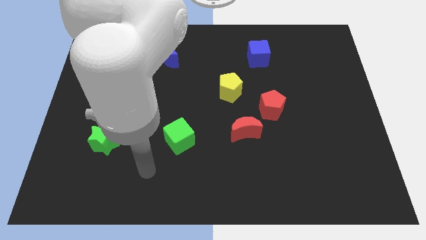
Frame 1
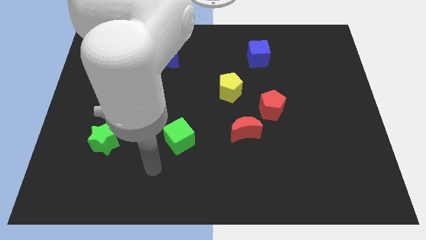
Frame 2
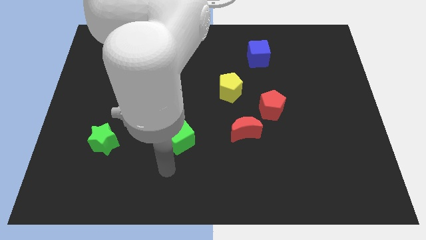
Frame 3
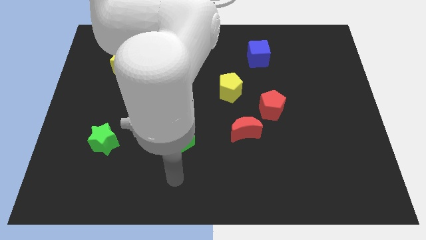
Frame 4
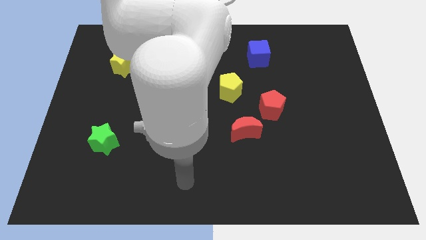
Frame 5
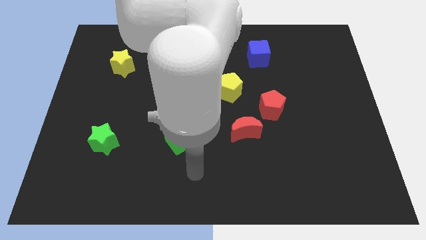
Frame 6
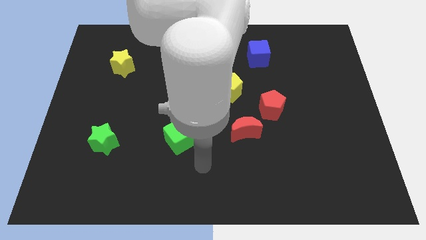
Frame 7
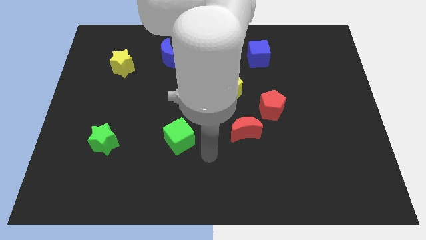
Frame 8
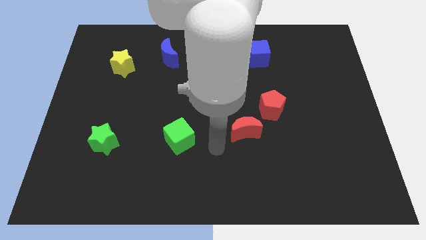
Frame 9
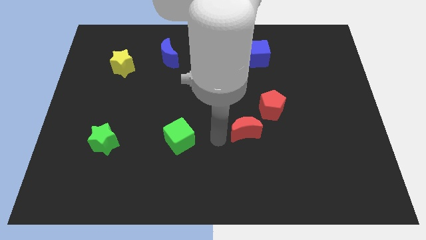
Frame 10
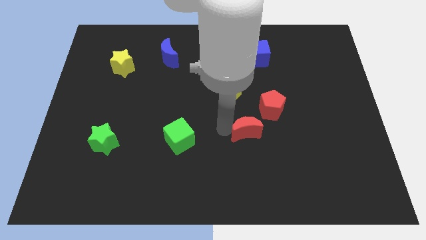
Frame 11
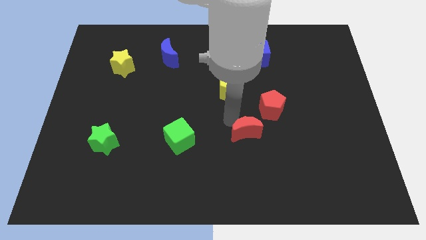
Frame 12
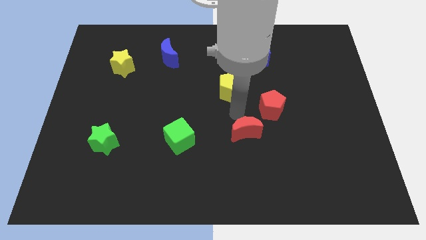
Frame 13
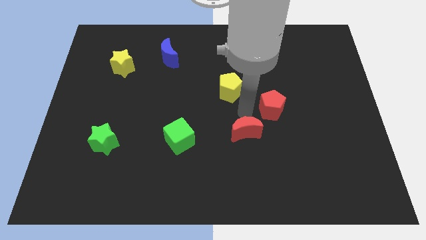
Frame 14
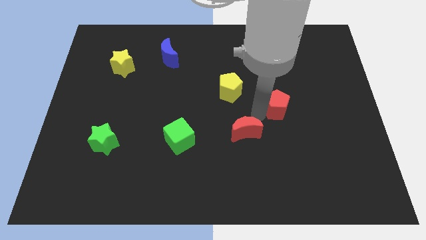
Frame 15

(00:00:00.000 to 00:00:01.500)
separate the red moon from the red pentagon

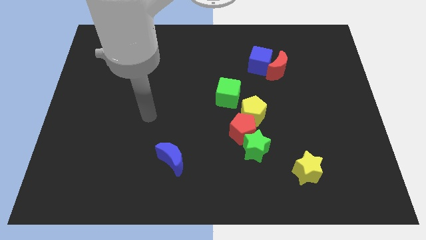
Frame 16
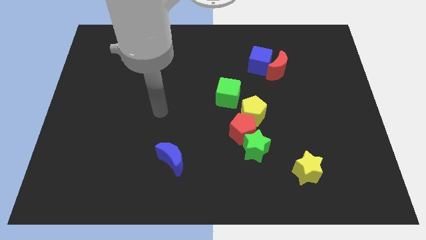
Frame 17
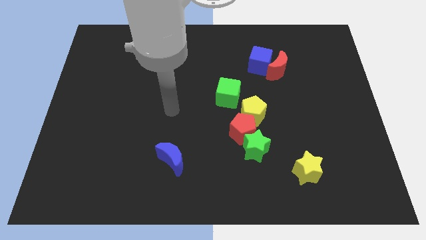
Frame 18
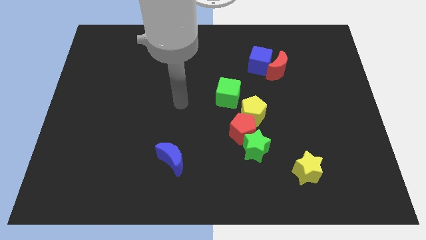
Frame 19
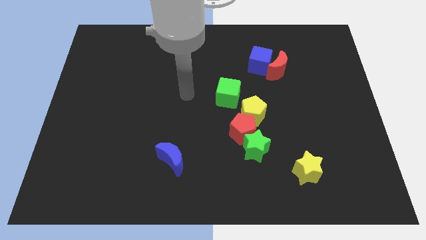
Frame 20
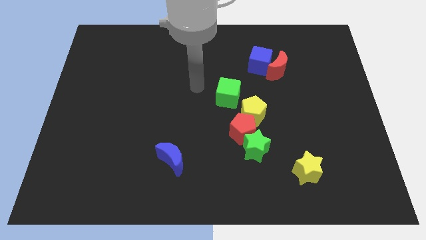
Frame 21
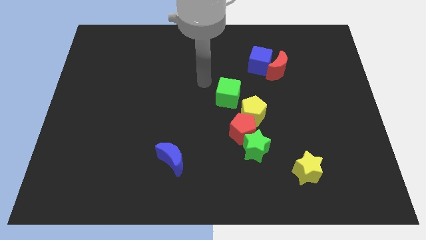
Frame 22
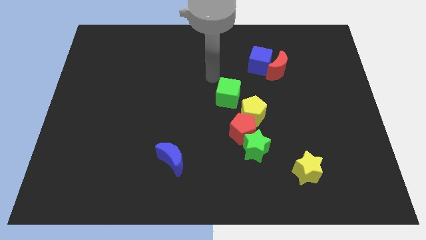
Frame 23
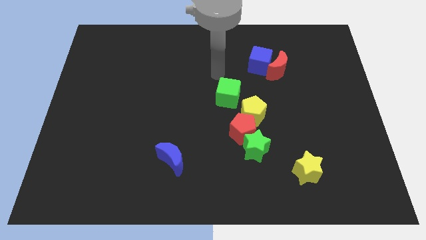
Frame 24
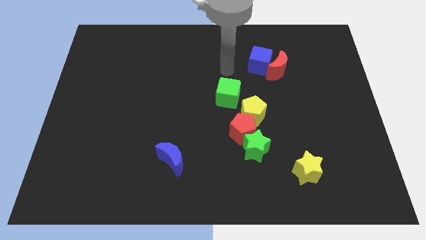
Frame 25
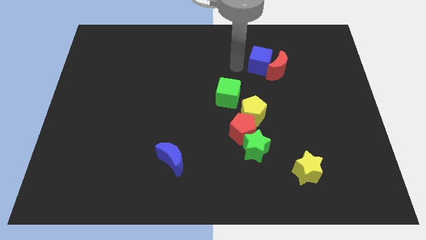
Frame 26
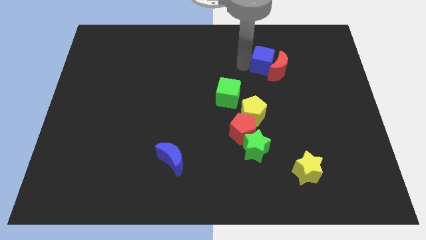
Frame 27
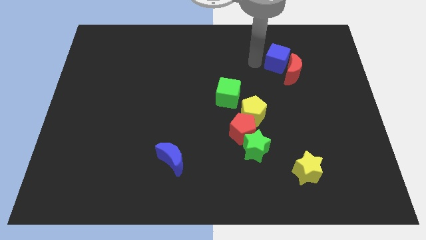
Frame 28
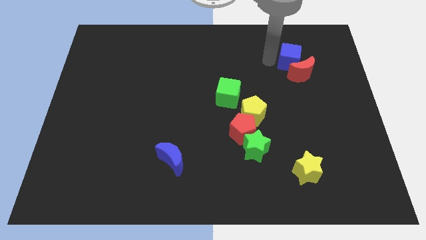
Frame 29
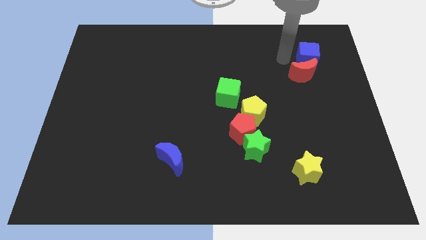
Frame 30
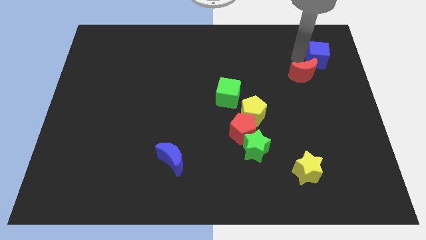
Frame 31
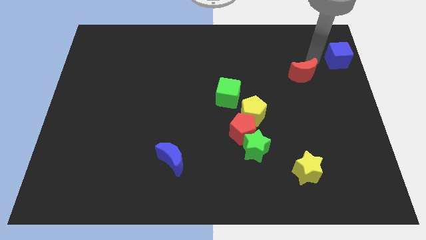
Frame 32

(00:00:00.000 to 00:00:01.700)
separate the red moon from the blue cube

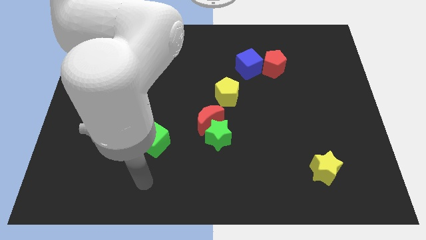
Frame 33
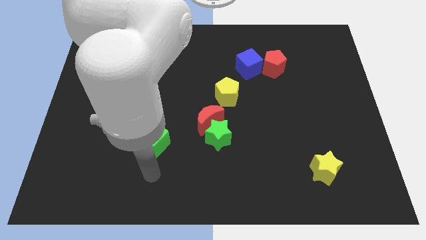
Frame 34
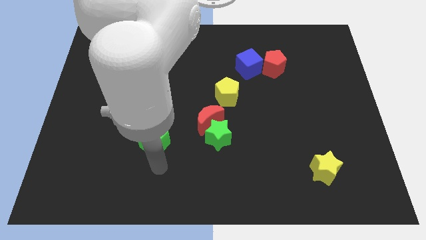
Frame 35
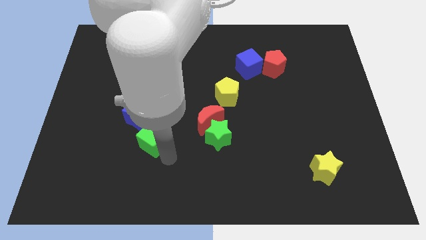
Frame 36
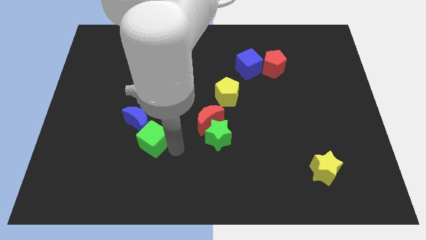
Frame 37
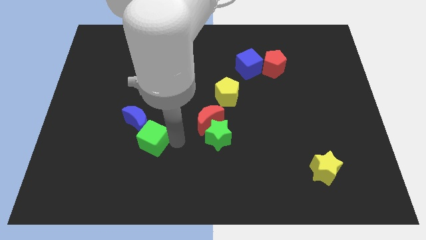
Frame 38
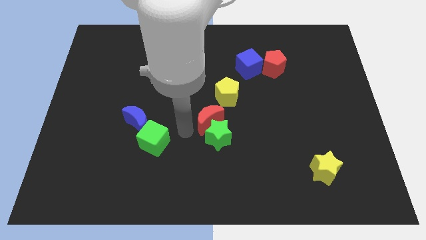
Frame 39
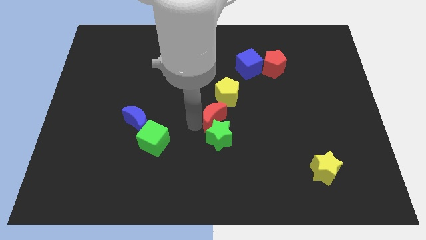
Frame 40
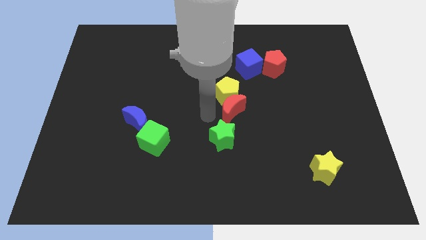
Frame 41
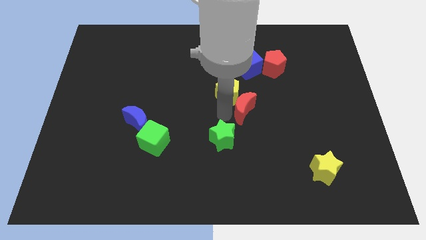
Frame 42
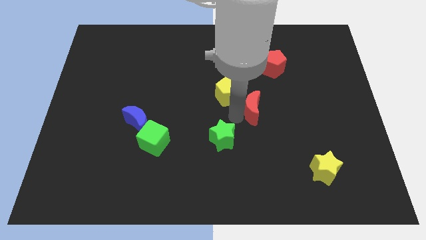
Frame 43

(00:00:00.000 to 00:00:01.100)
move the green star away from the red moon

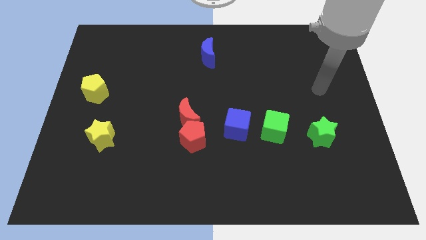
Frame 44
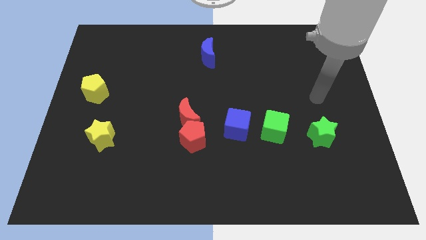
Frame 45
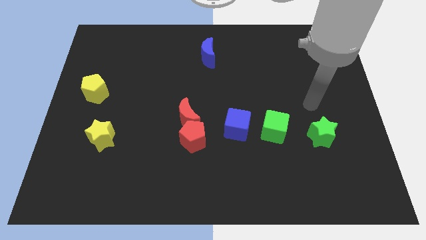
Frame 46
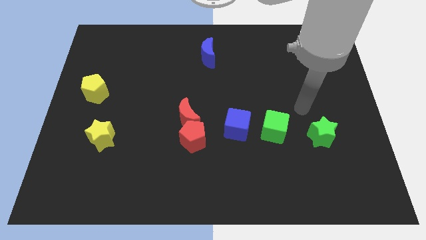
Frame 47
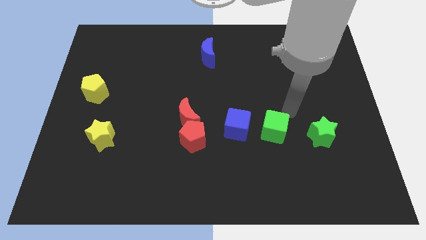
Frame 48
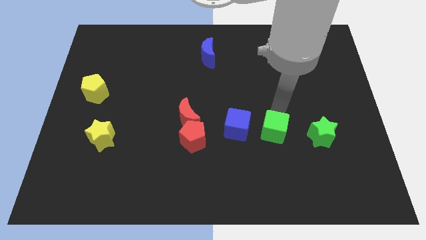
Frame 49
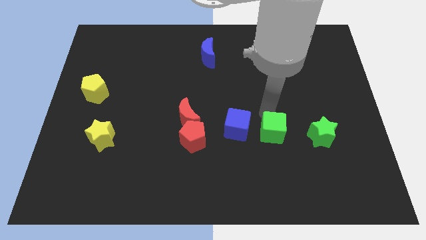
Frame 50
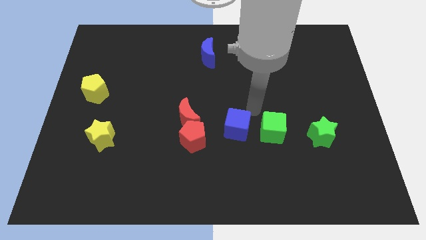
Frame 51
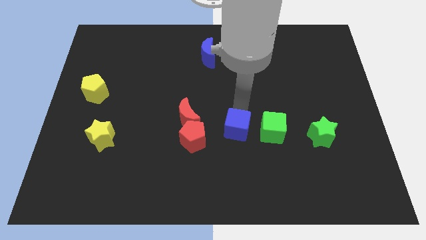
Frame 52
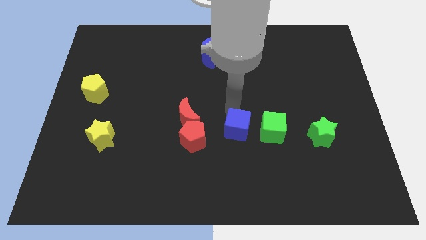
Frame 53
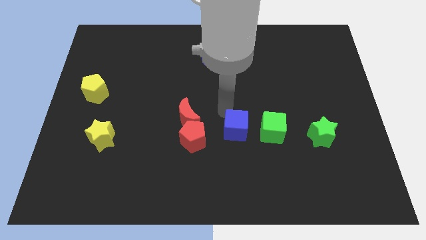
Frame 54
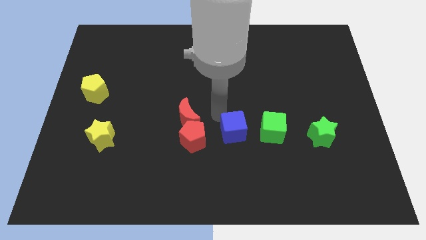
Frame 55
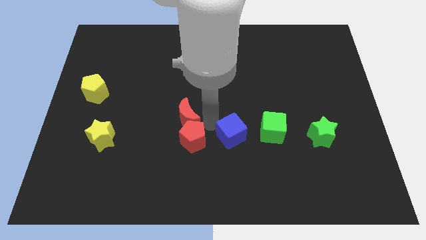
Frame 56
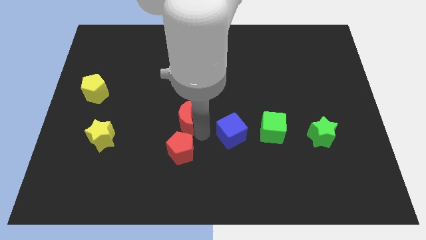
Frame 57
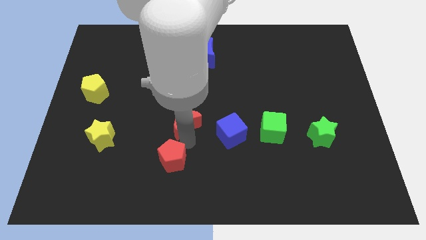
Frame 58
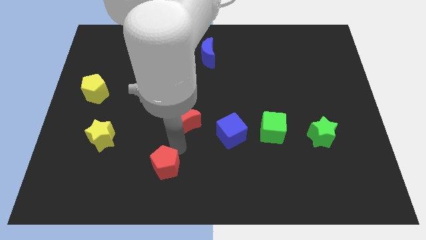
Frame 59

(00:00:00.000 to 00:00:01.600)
pull the red moon apart from the red pentagon

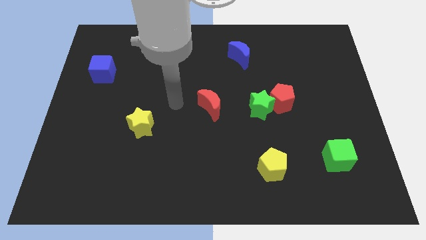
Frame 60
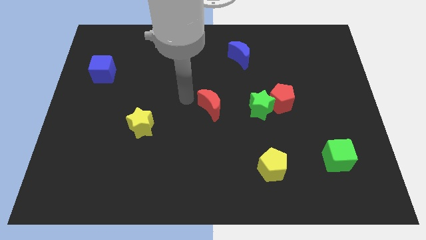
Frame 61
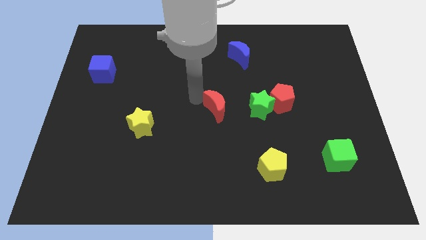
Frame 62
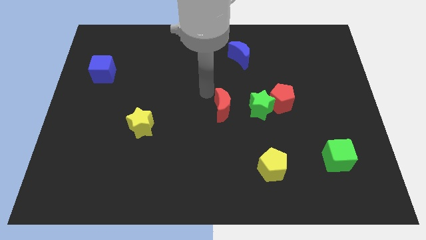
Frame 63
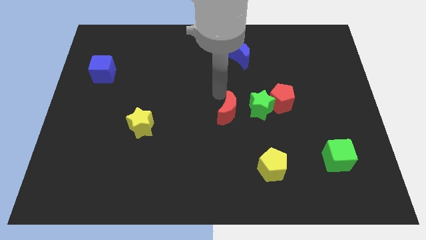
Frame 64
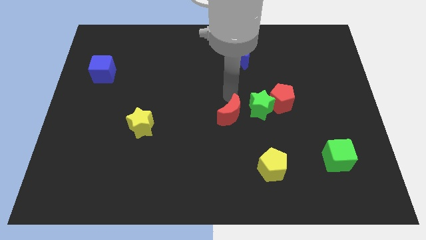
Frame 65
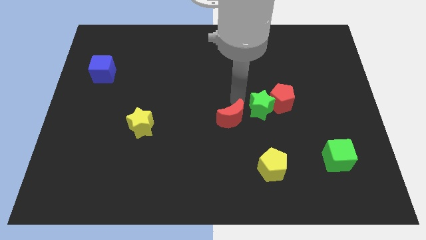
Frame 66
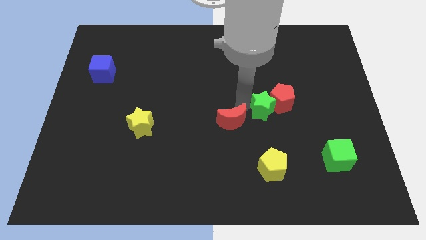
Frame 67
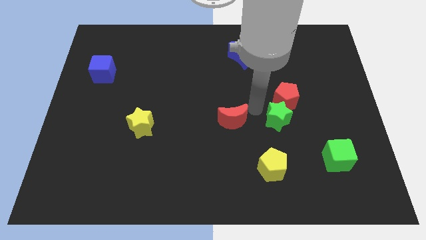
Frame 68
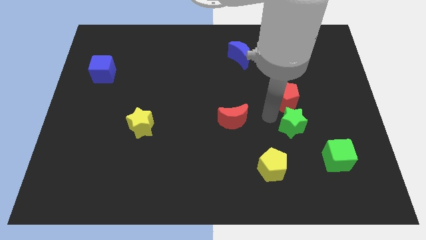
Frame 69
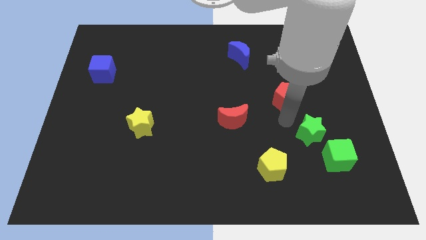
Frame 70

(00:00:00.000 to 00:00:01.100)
separate the red pentagon from the green star

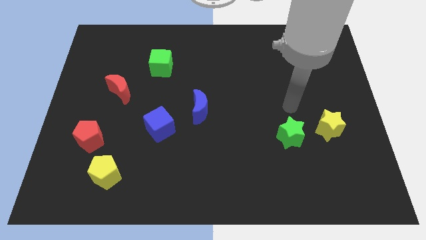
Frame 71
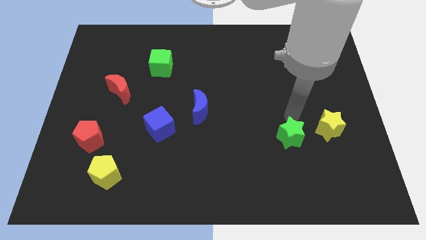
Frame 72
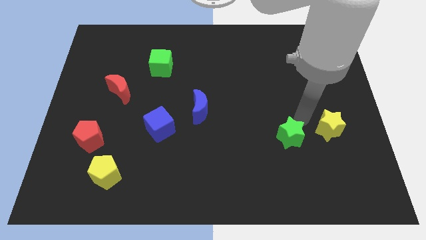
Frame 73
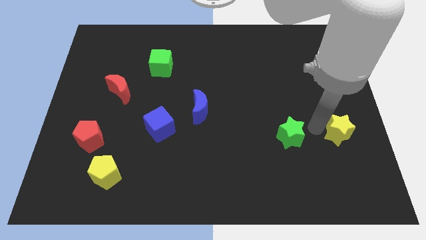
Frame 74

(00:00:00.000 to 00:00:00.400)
move the green star away from the yellow star

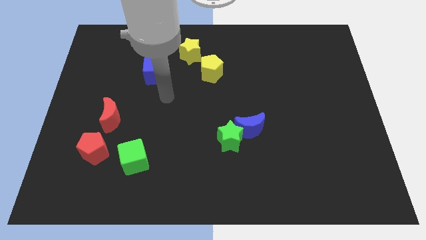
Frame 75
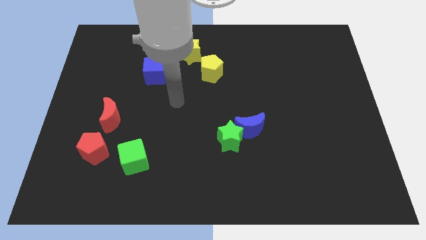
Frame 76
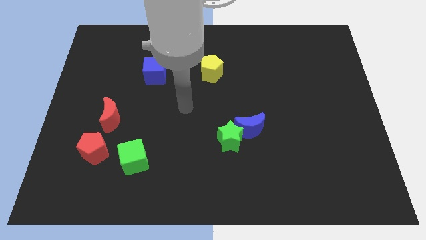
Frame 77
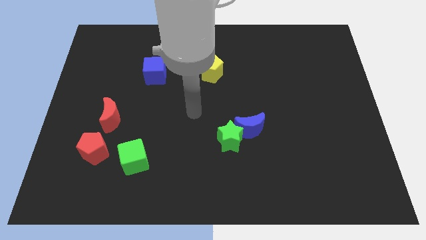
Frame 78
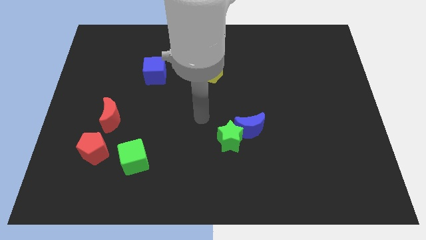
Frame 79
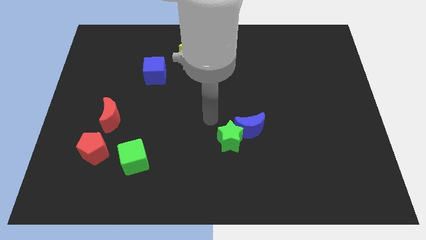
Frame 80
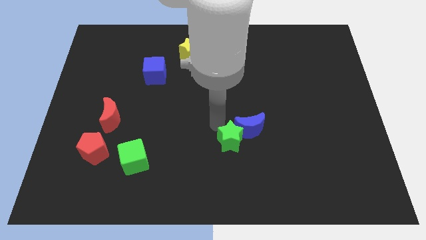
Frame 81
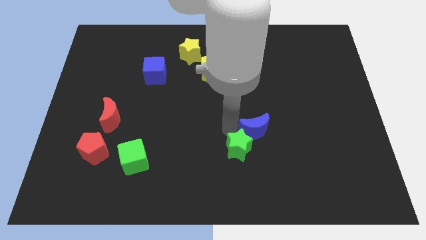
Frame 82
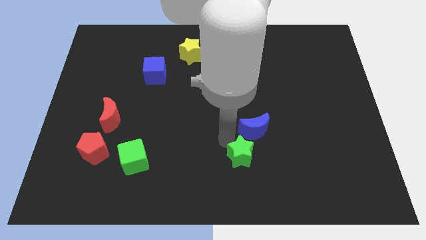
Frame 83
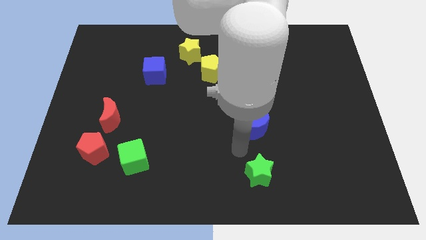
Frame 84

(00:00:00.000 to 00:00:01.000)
move the blue moon away from the green star

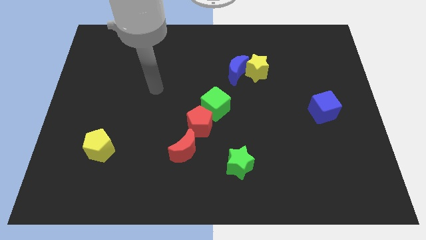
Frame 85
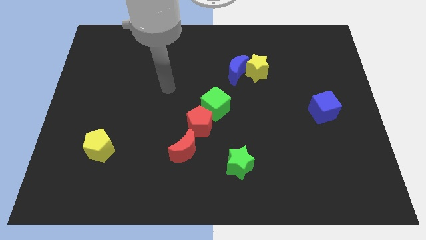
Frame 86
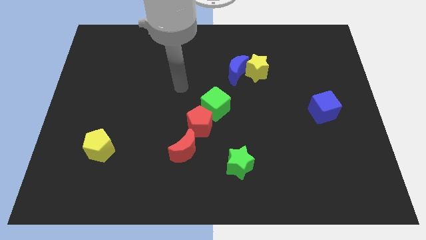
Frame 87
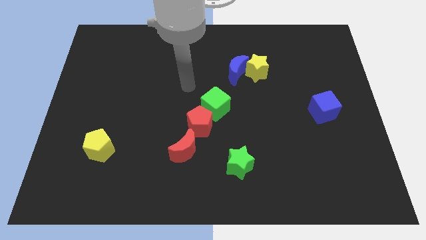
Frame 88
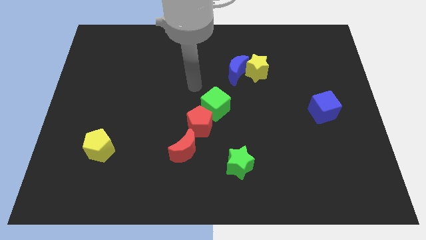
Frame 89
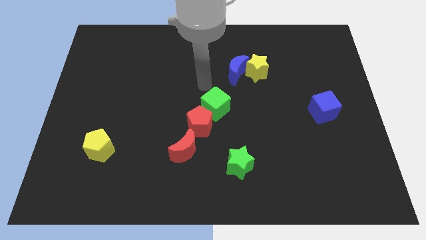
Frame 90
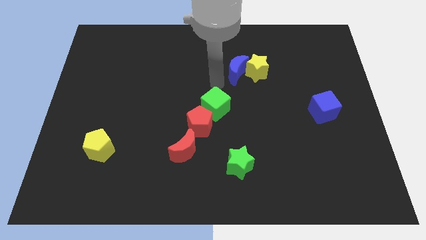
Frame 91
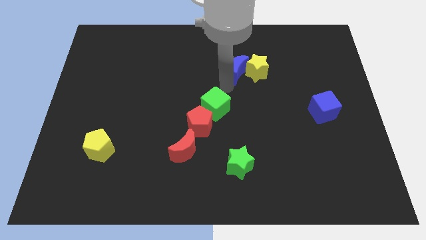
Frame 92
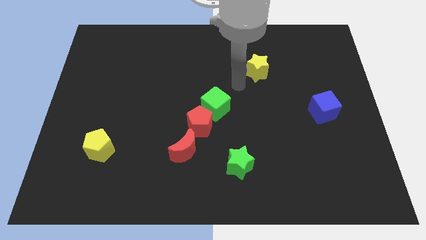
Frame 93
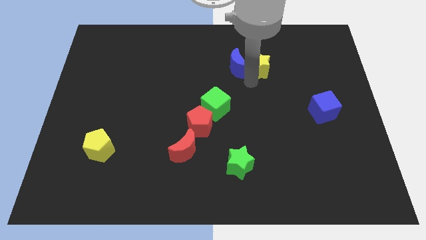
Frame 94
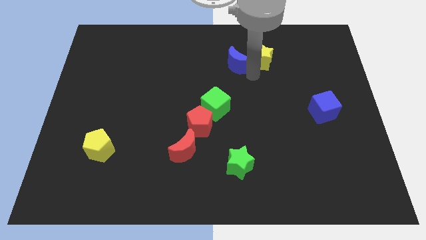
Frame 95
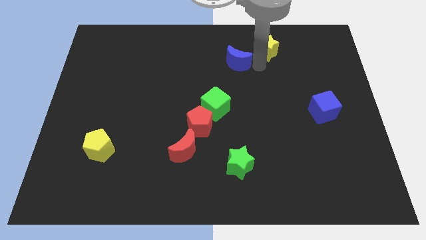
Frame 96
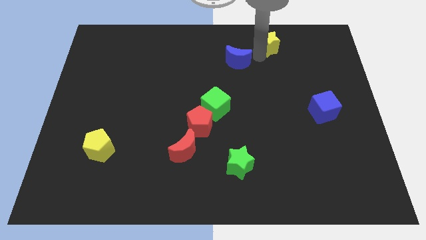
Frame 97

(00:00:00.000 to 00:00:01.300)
move the blue moon away from the yellow star
